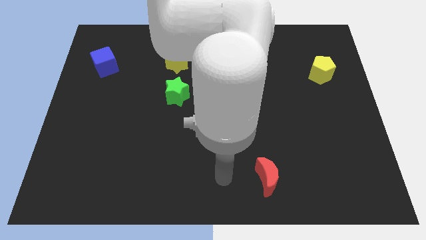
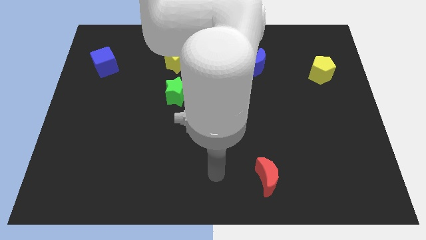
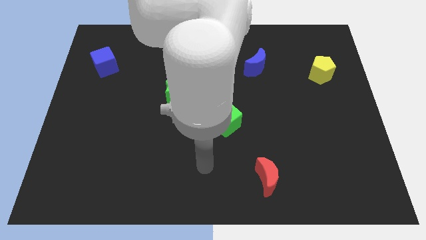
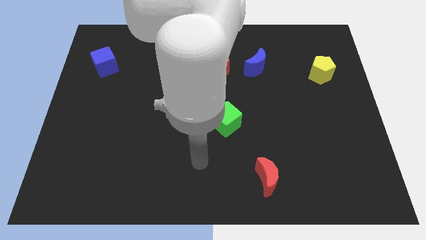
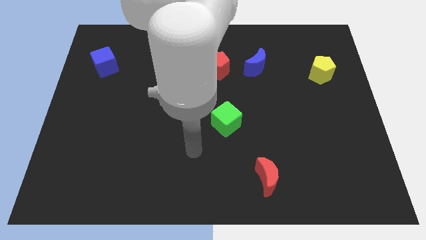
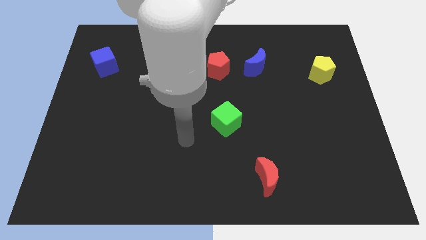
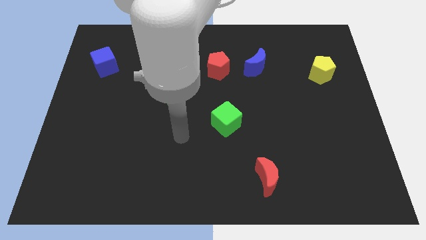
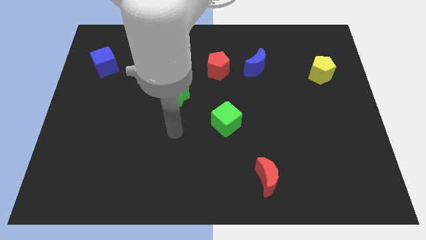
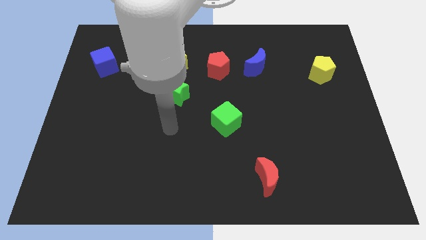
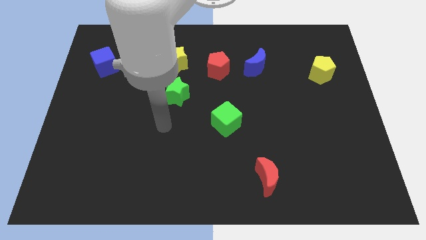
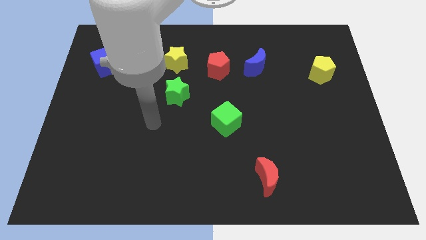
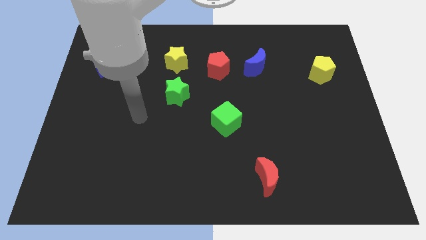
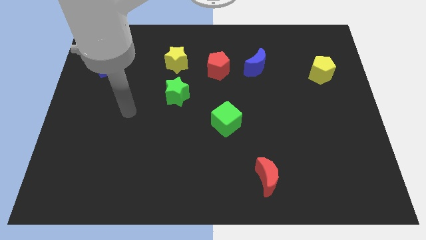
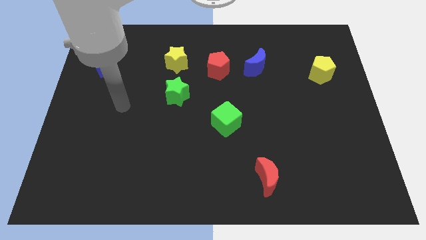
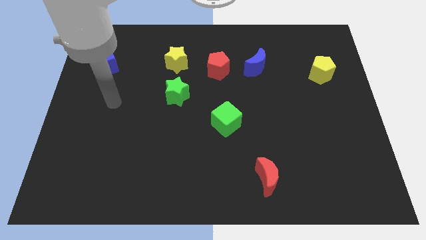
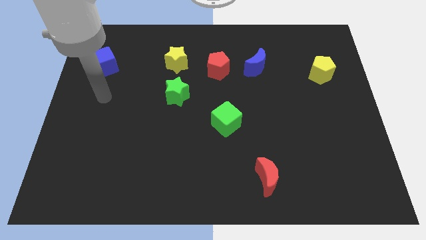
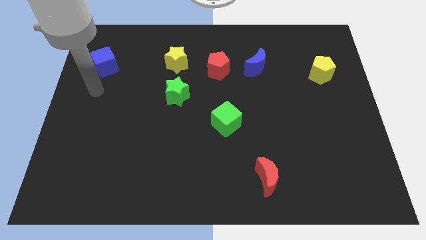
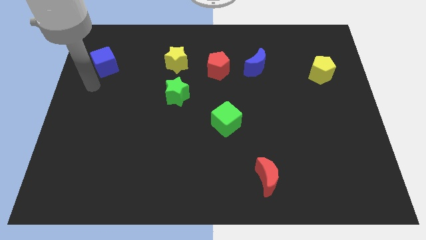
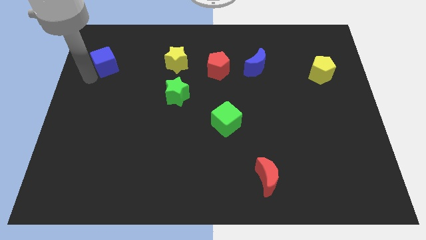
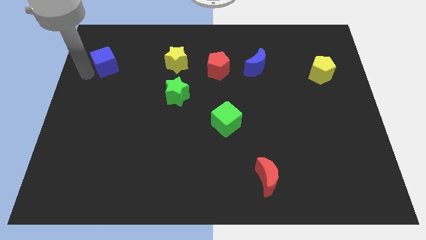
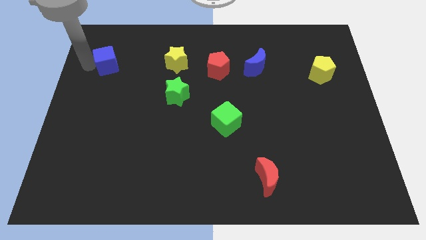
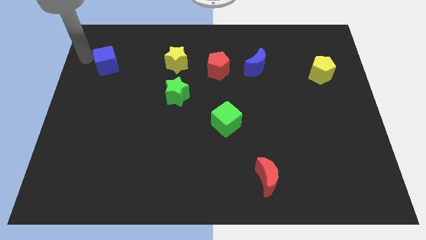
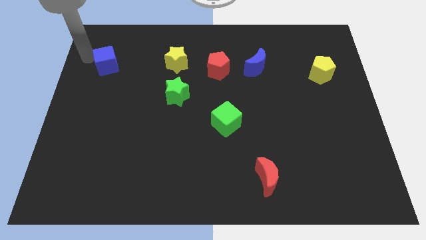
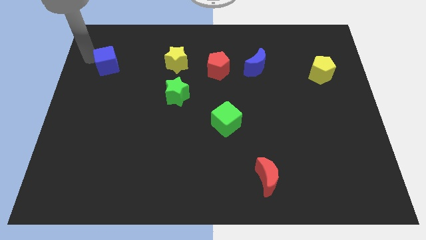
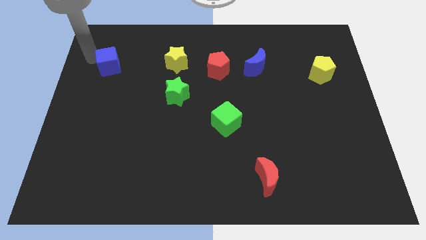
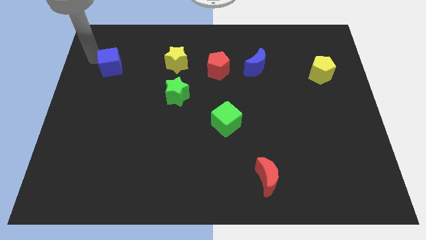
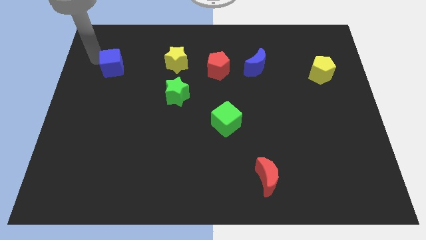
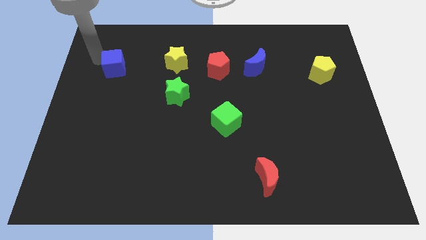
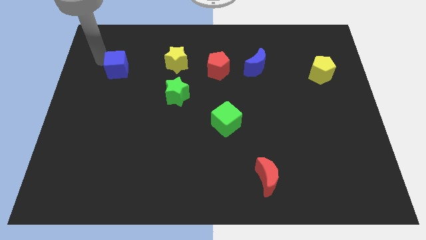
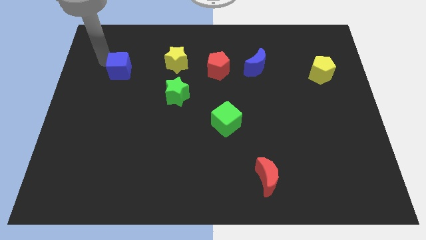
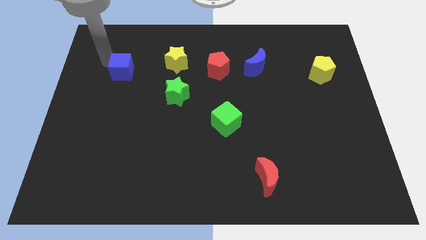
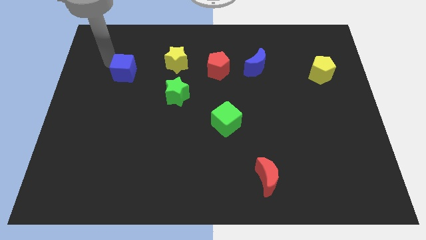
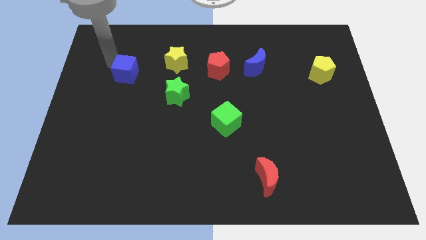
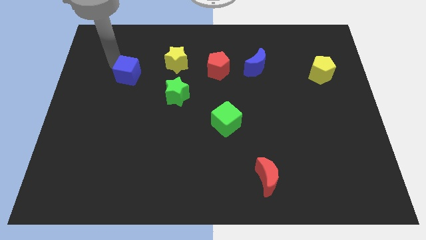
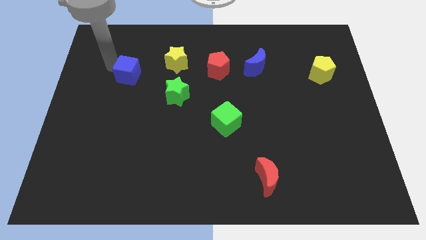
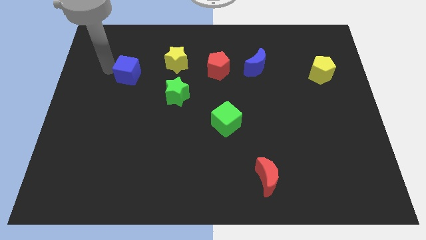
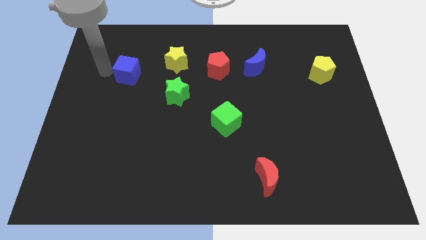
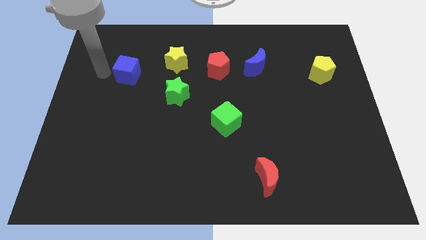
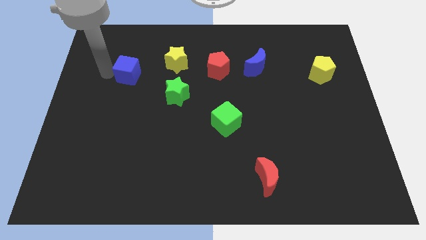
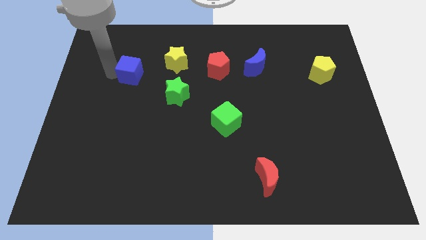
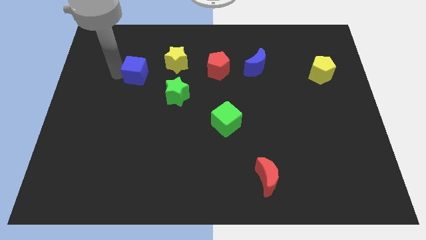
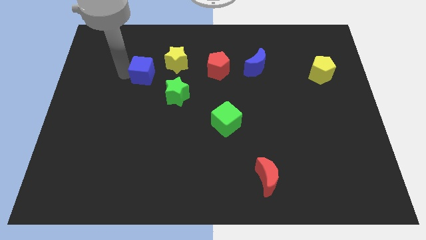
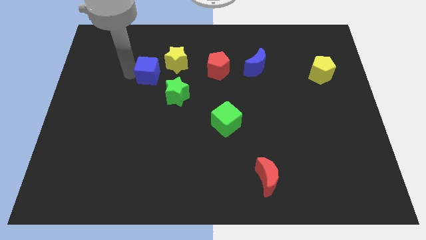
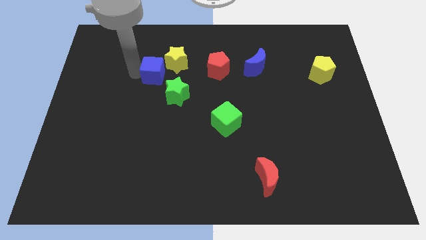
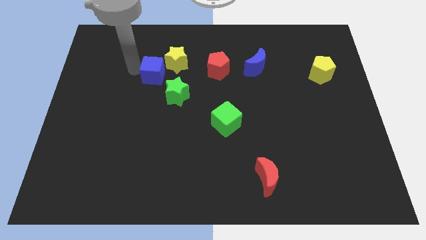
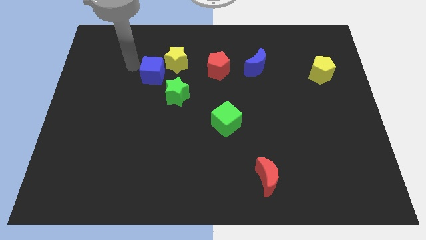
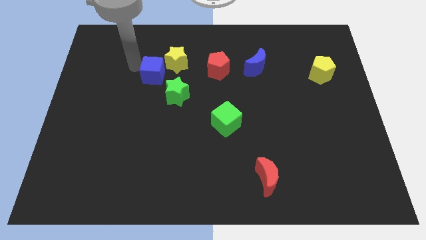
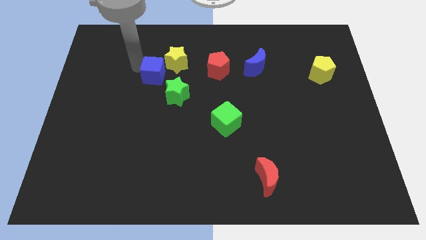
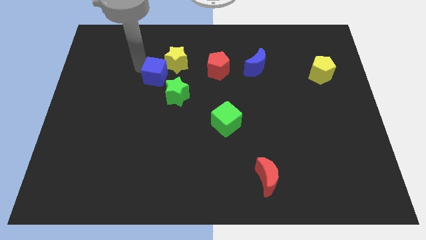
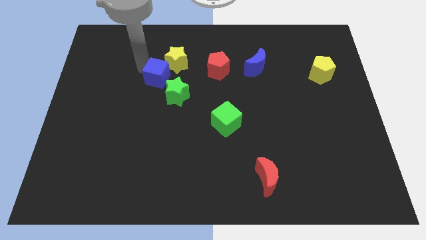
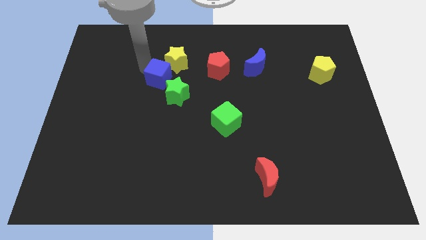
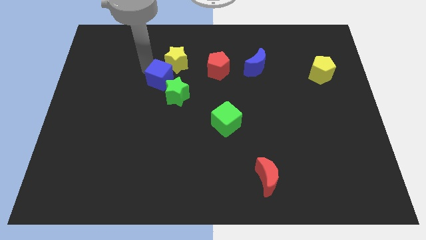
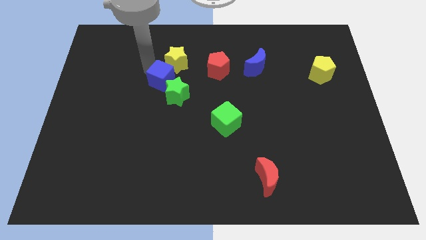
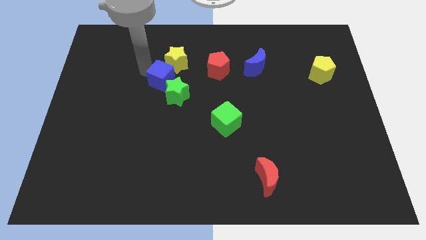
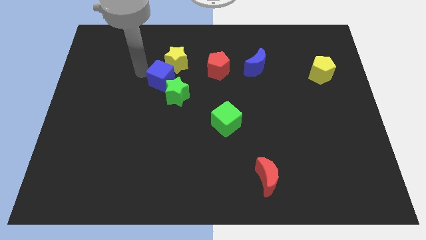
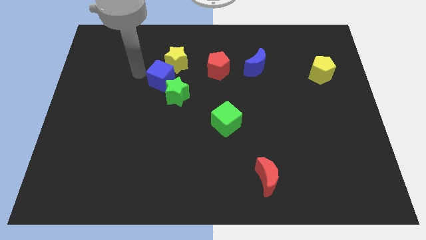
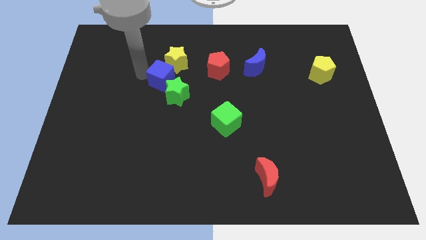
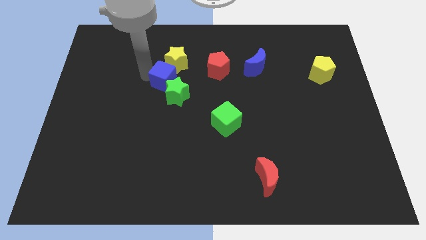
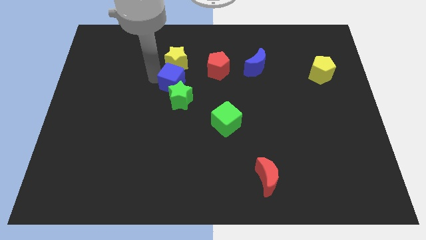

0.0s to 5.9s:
push the blue cube to the middle

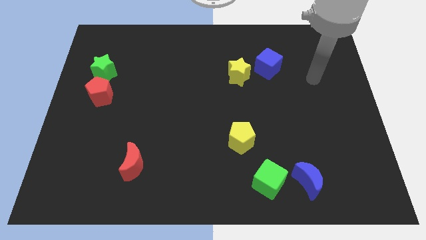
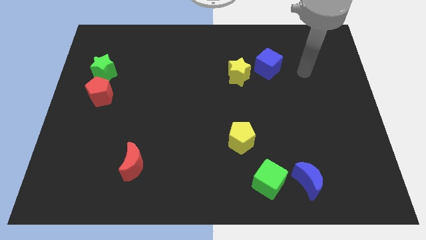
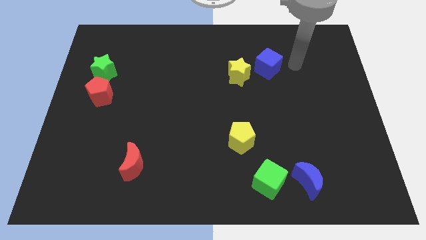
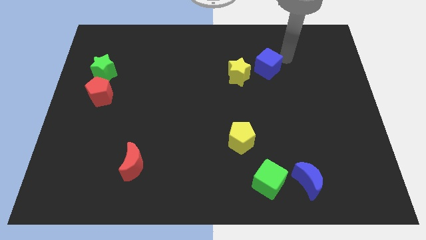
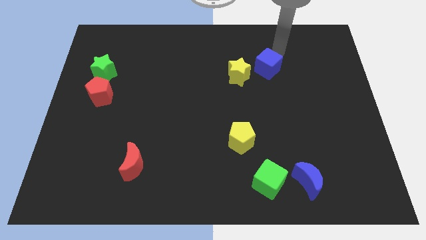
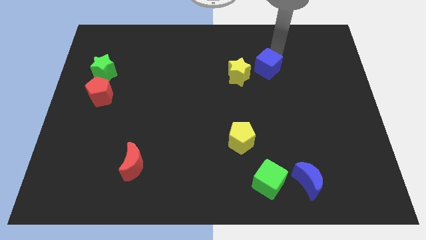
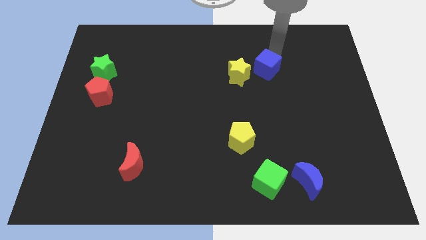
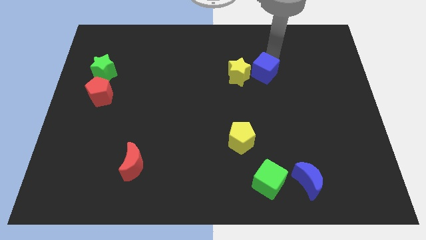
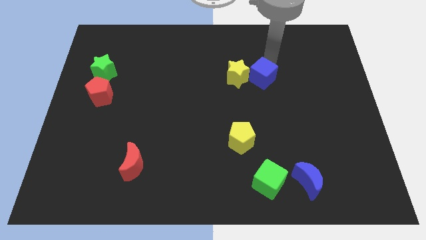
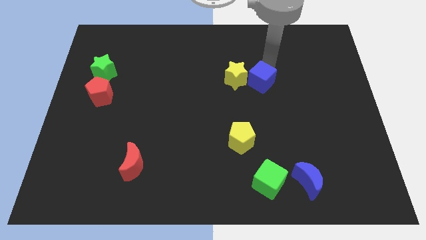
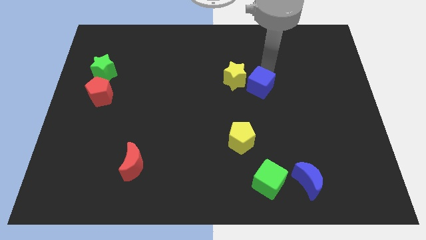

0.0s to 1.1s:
slide the blue cube to the middle of the board
